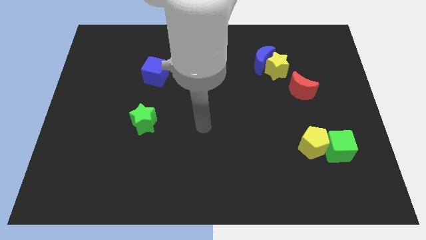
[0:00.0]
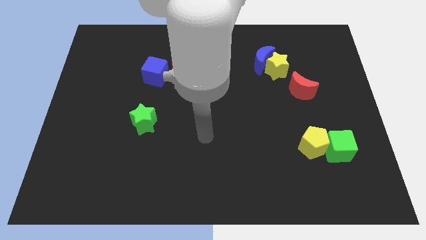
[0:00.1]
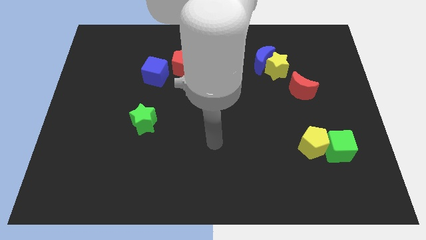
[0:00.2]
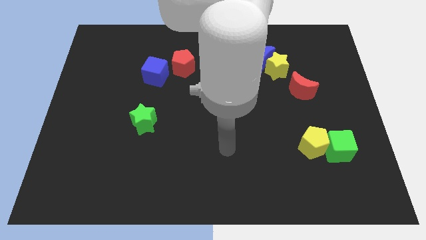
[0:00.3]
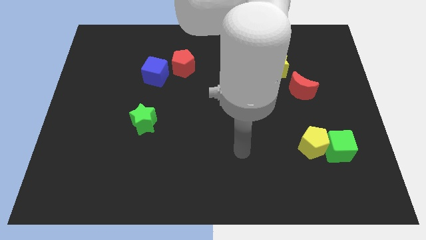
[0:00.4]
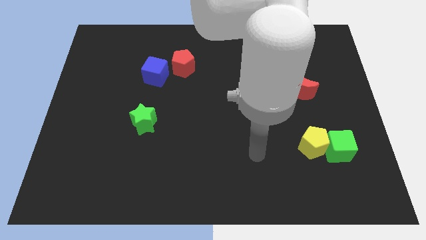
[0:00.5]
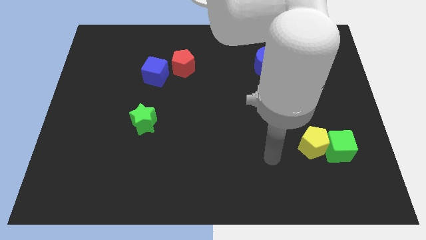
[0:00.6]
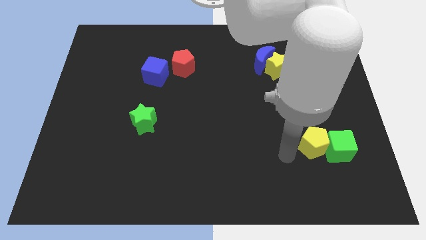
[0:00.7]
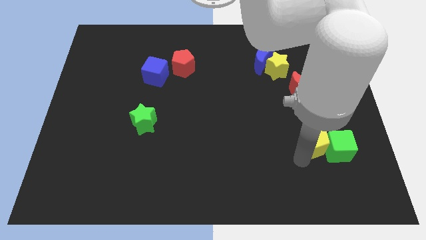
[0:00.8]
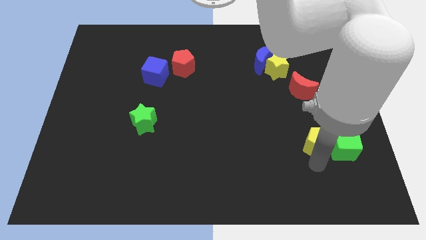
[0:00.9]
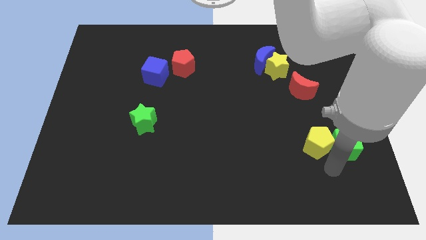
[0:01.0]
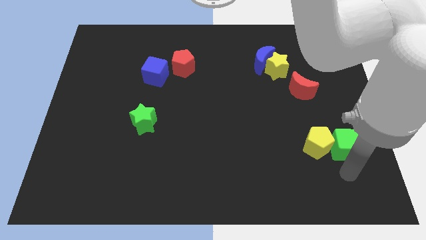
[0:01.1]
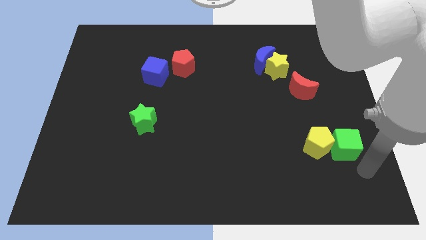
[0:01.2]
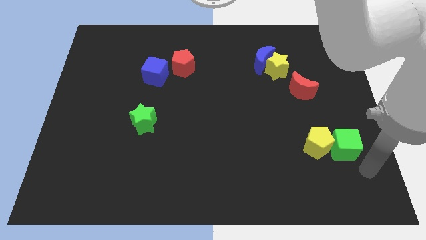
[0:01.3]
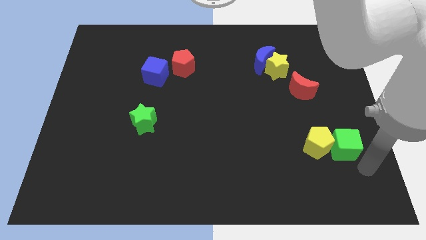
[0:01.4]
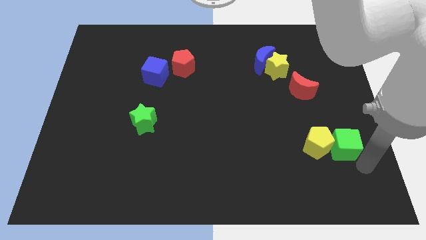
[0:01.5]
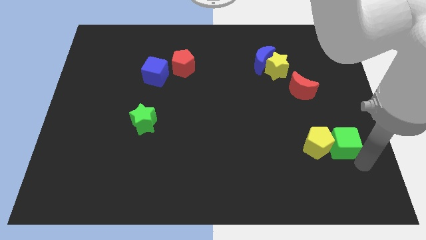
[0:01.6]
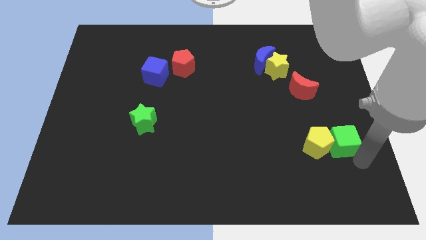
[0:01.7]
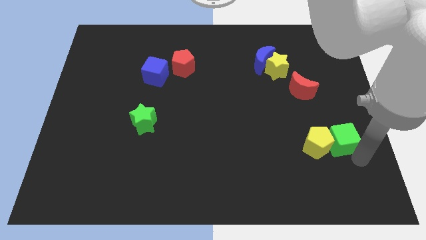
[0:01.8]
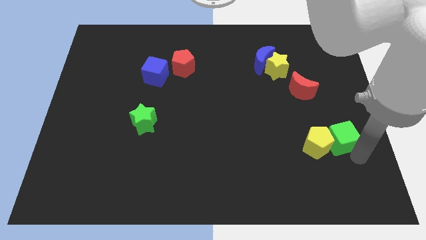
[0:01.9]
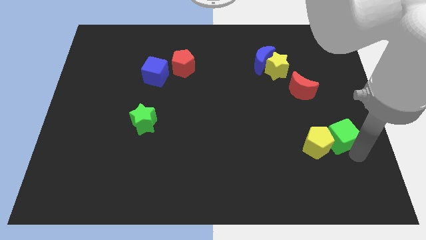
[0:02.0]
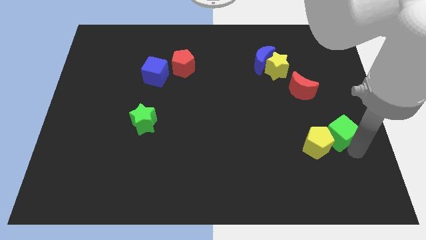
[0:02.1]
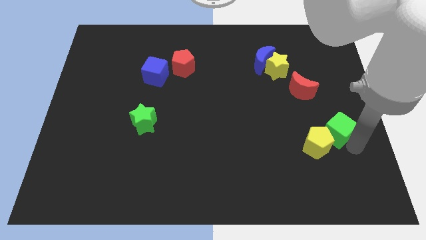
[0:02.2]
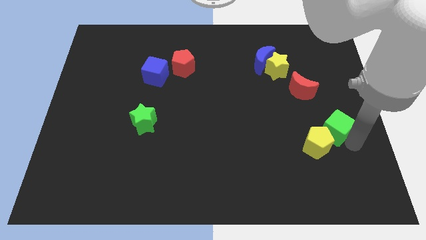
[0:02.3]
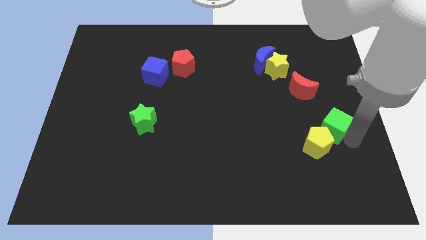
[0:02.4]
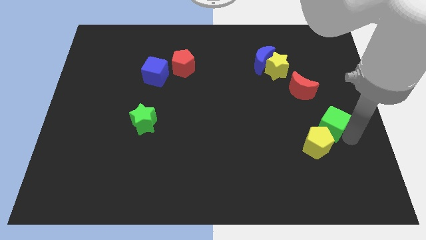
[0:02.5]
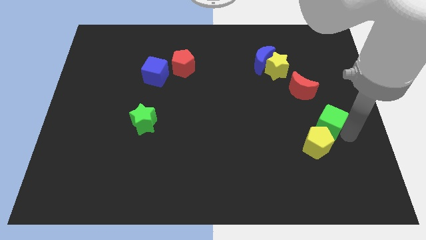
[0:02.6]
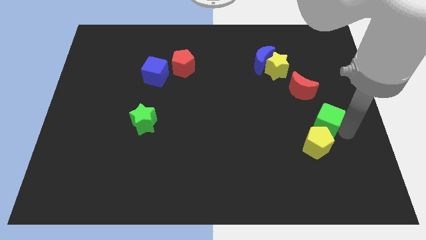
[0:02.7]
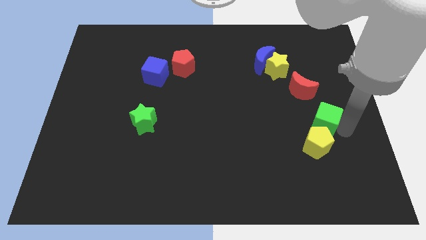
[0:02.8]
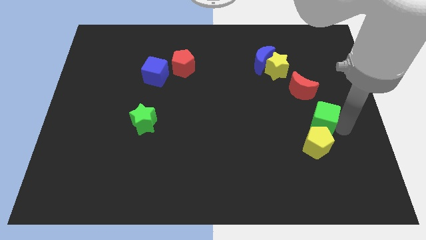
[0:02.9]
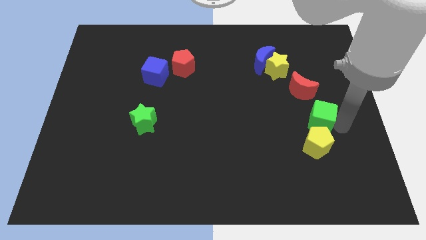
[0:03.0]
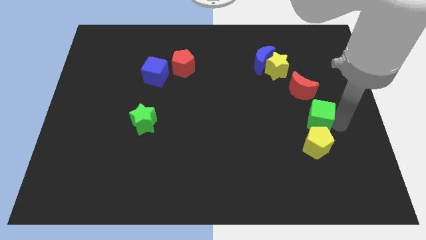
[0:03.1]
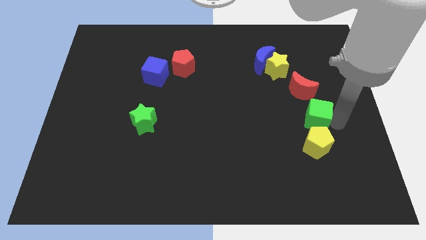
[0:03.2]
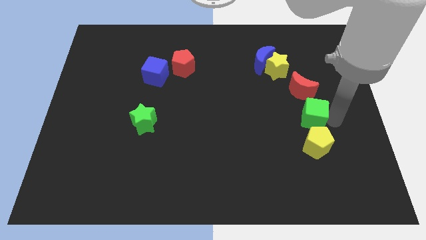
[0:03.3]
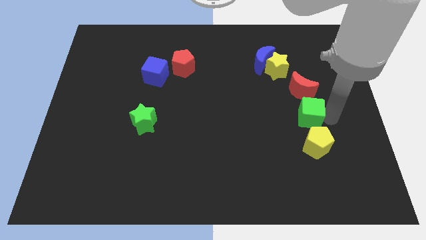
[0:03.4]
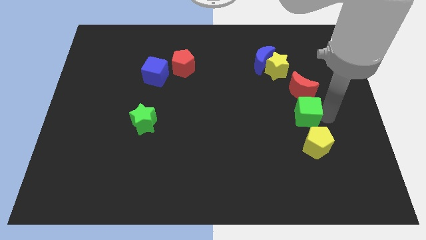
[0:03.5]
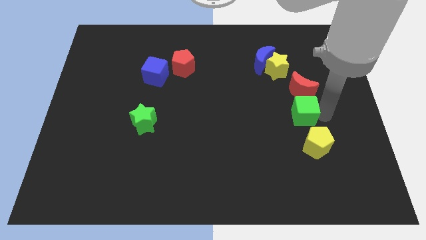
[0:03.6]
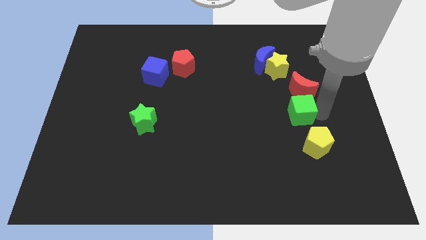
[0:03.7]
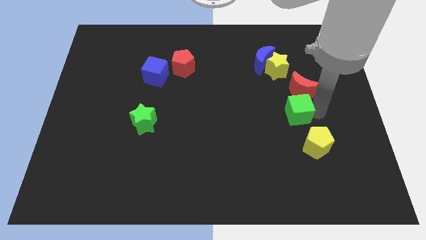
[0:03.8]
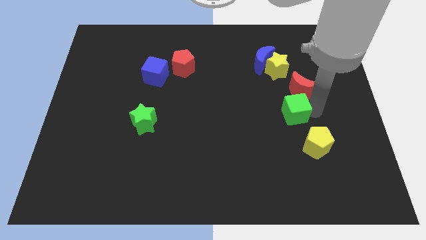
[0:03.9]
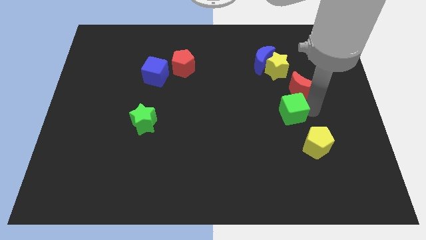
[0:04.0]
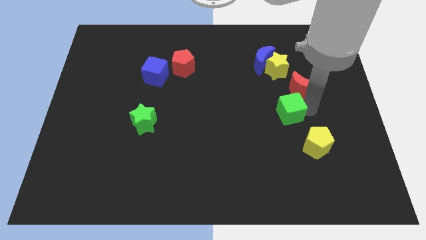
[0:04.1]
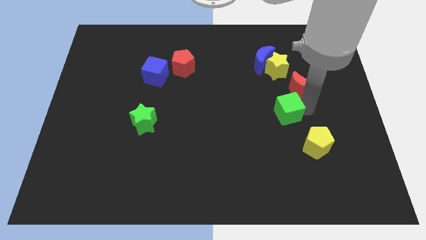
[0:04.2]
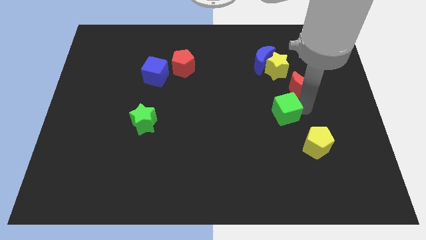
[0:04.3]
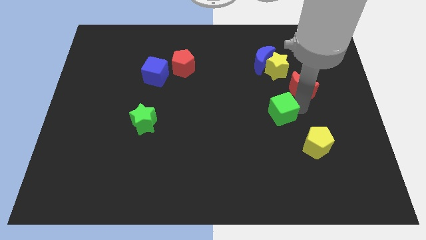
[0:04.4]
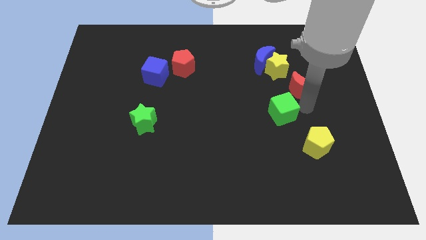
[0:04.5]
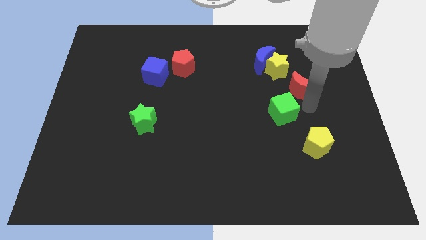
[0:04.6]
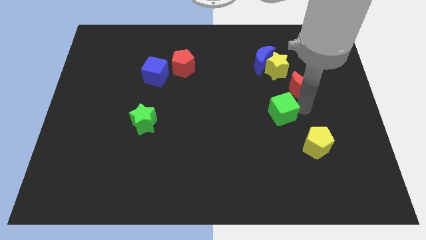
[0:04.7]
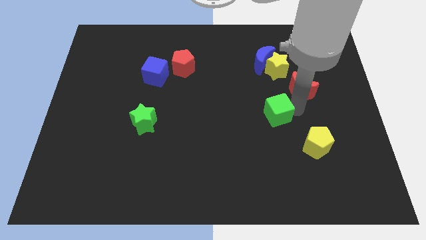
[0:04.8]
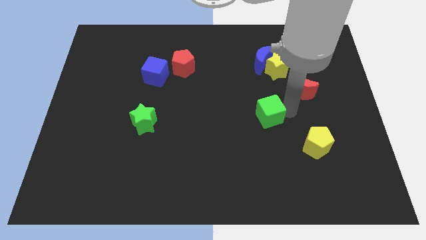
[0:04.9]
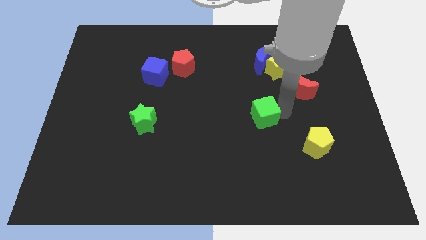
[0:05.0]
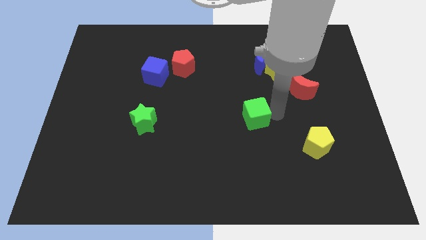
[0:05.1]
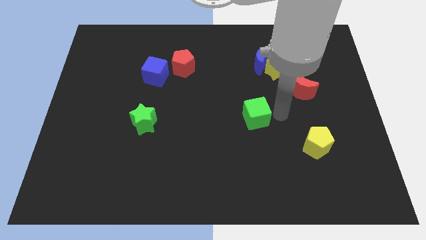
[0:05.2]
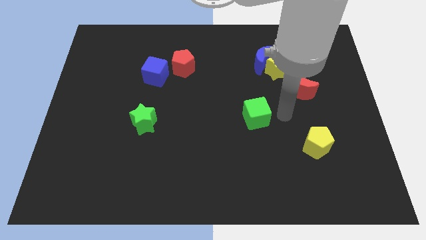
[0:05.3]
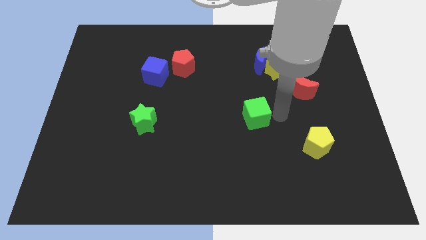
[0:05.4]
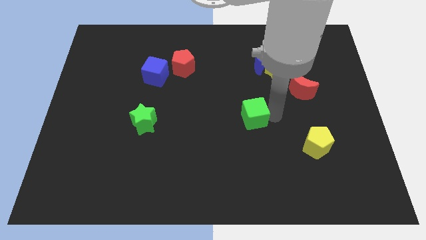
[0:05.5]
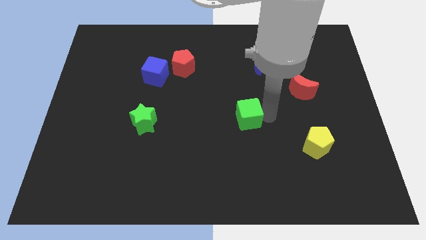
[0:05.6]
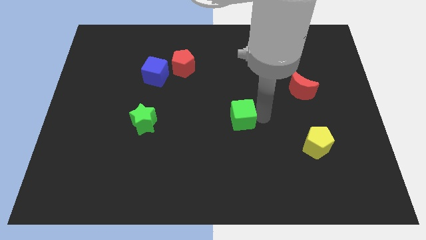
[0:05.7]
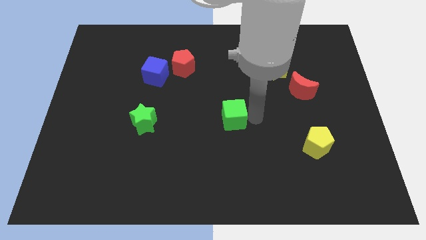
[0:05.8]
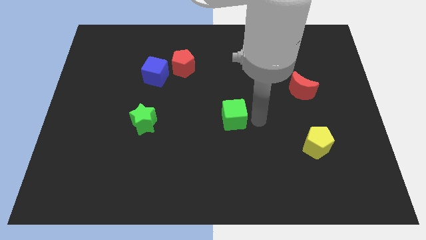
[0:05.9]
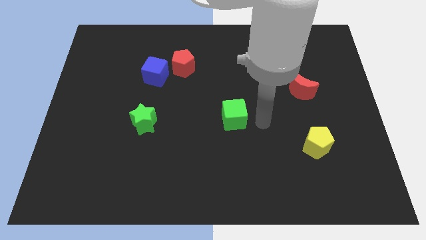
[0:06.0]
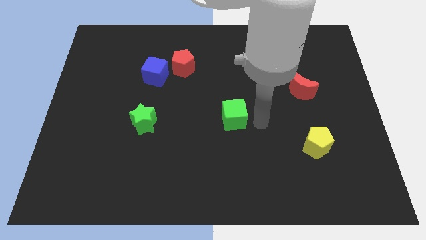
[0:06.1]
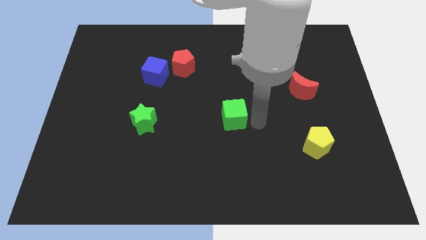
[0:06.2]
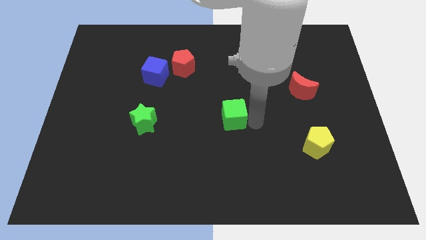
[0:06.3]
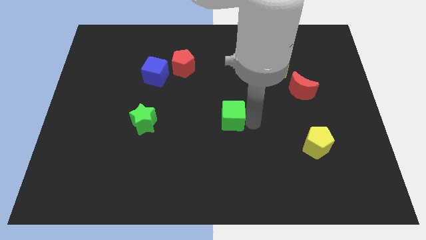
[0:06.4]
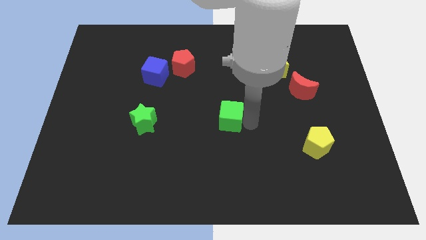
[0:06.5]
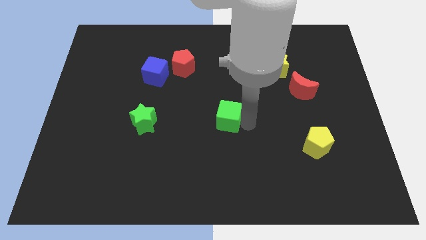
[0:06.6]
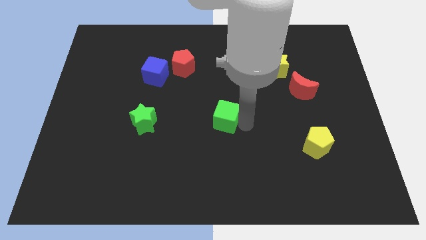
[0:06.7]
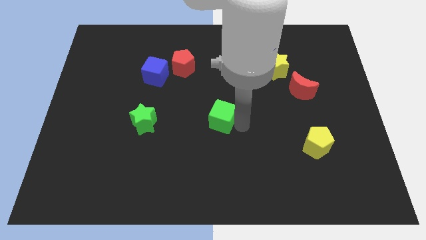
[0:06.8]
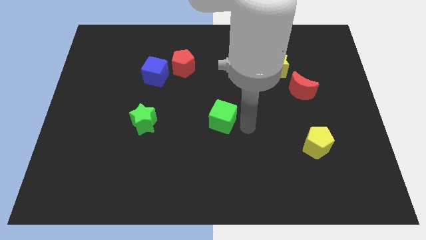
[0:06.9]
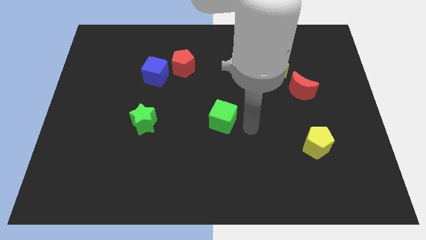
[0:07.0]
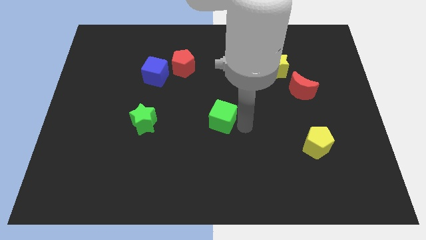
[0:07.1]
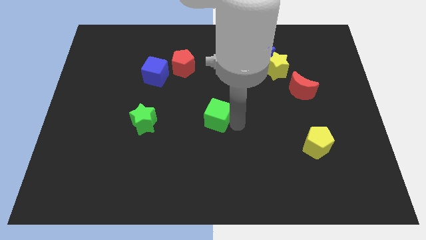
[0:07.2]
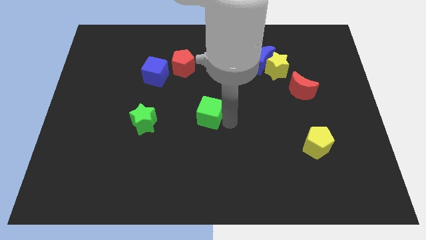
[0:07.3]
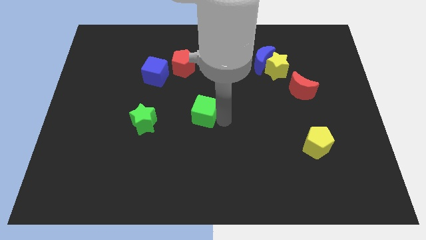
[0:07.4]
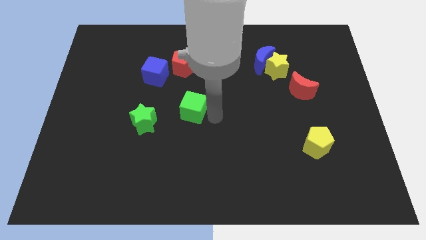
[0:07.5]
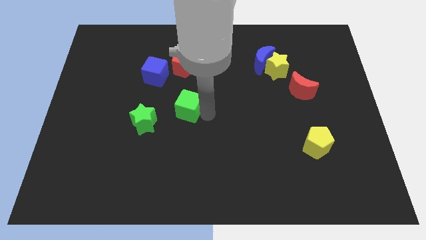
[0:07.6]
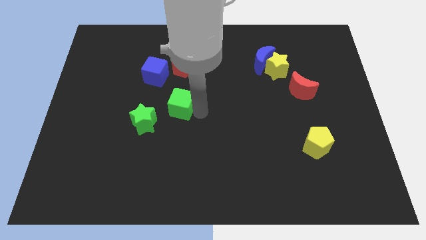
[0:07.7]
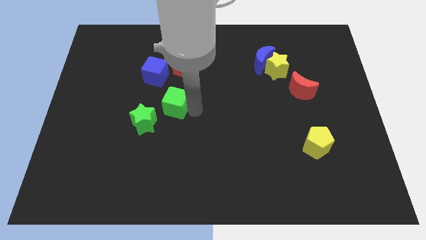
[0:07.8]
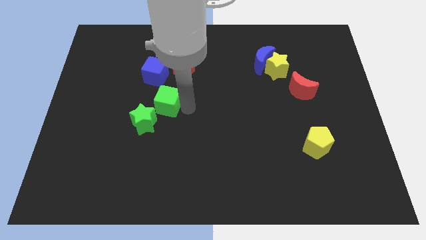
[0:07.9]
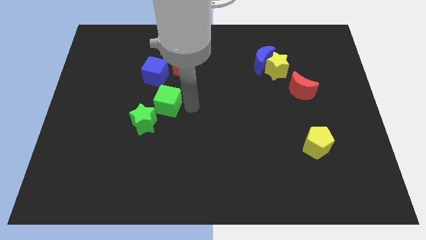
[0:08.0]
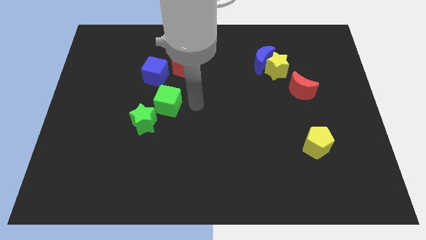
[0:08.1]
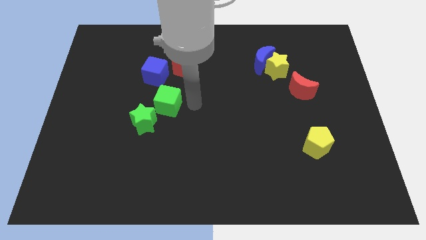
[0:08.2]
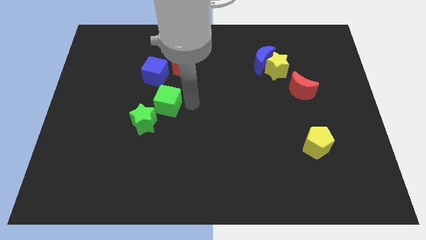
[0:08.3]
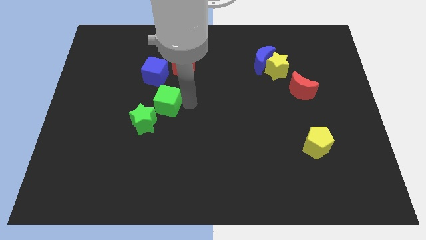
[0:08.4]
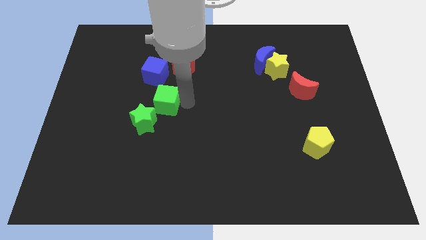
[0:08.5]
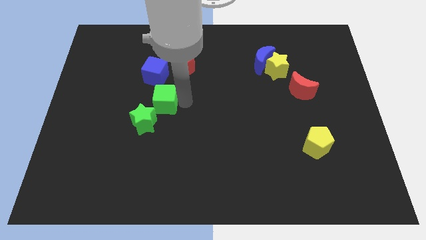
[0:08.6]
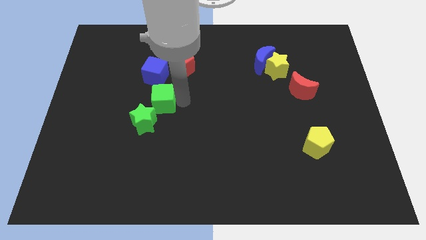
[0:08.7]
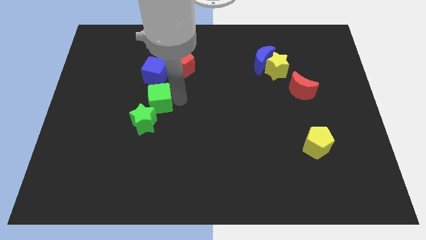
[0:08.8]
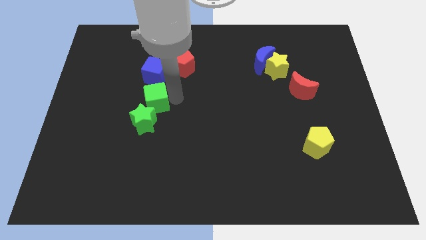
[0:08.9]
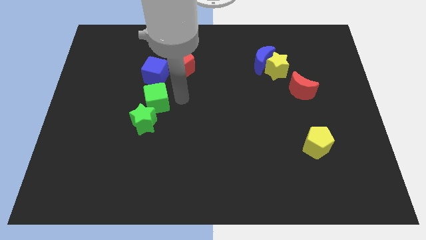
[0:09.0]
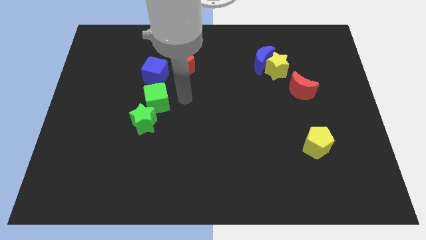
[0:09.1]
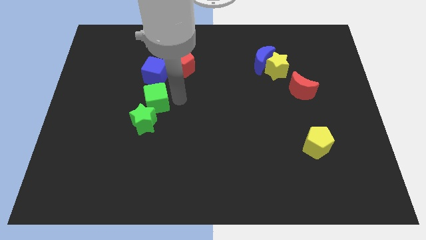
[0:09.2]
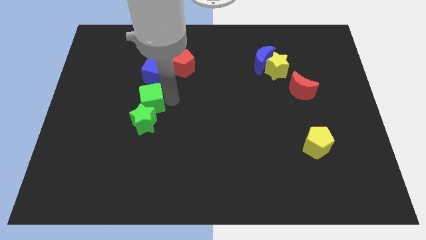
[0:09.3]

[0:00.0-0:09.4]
slide the green cube diagonally up and to the left of the green star
